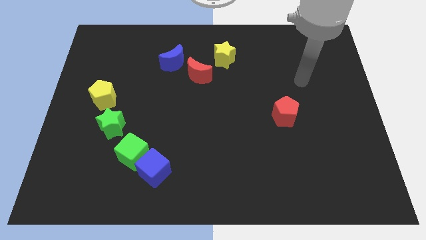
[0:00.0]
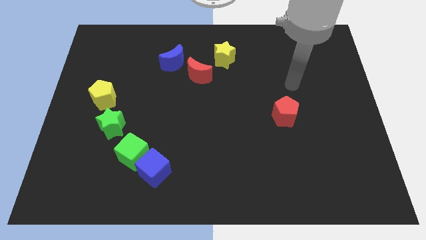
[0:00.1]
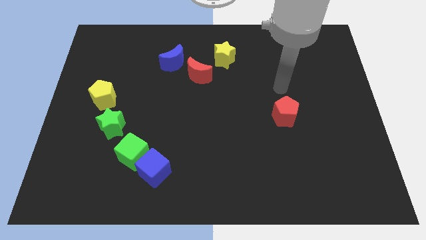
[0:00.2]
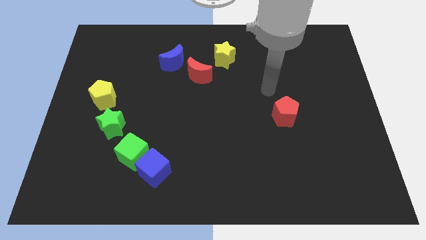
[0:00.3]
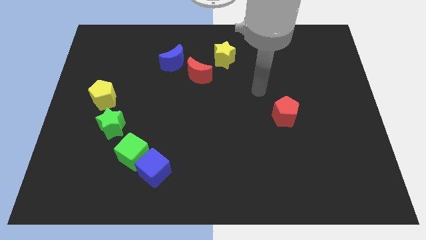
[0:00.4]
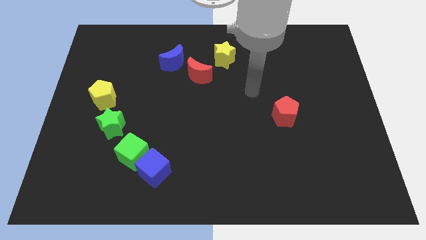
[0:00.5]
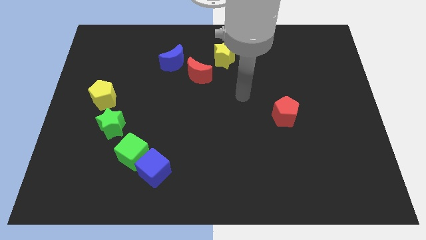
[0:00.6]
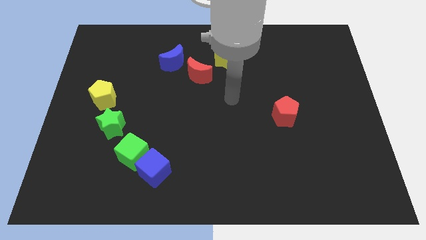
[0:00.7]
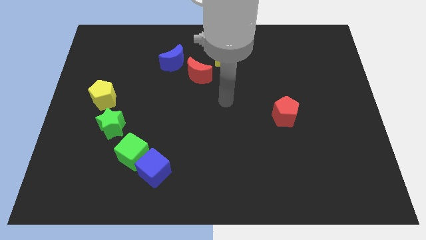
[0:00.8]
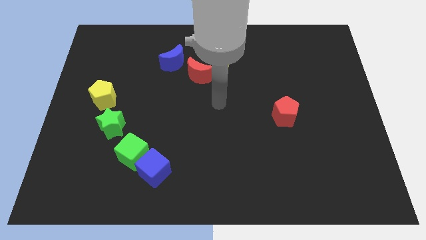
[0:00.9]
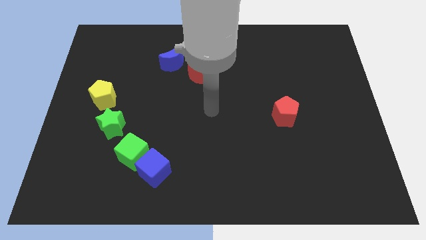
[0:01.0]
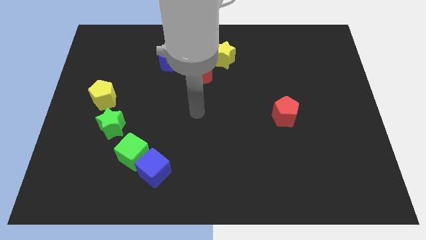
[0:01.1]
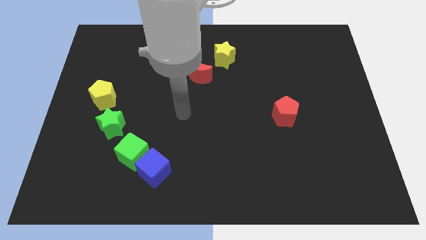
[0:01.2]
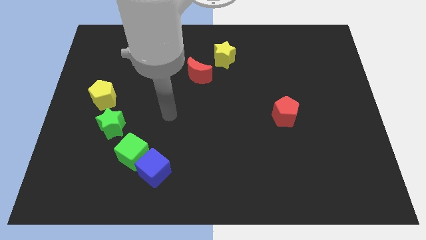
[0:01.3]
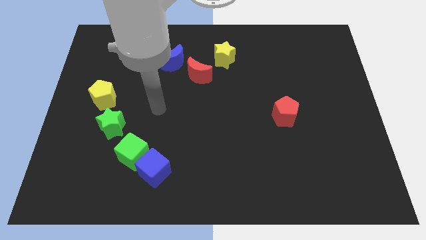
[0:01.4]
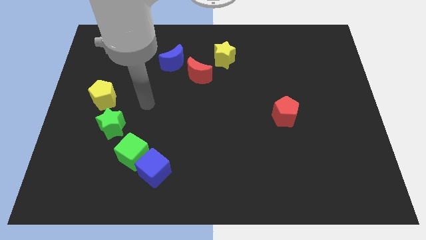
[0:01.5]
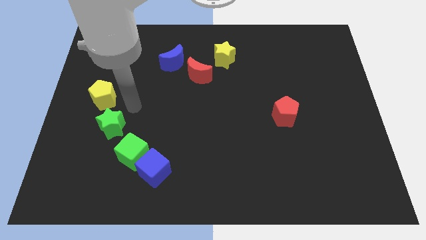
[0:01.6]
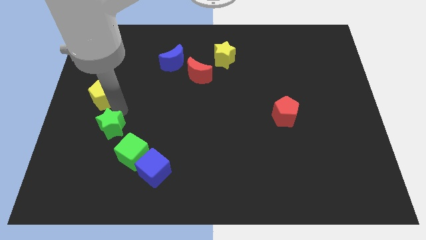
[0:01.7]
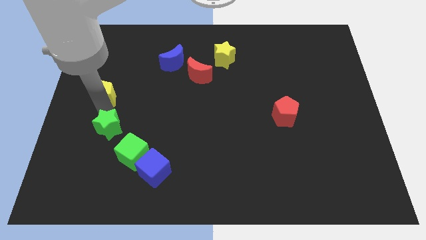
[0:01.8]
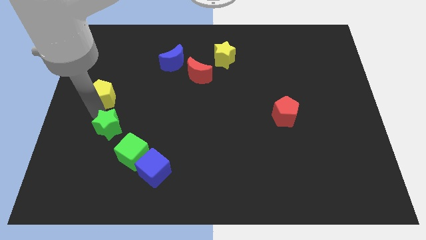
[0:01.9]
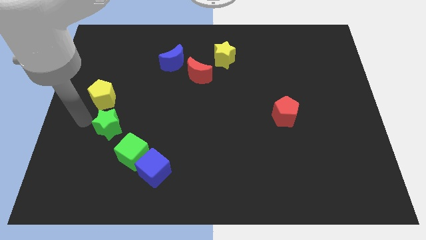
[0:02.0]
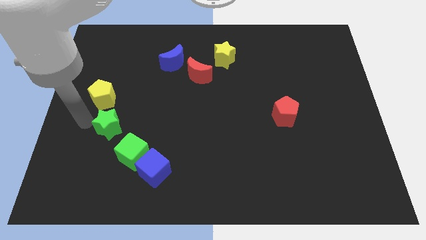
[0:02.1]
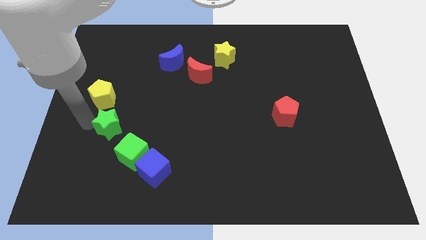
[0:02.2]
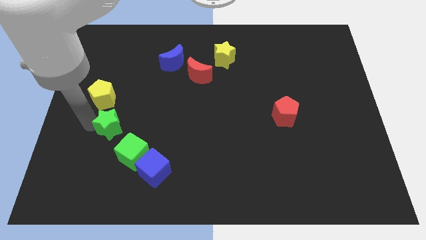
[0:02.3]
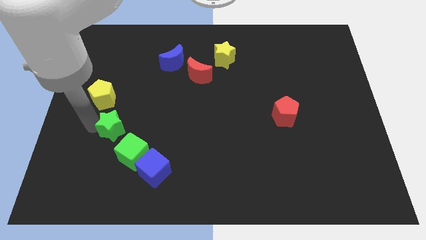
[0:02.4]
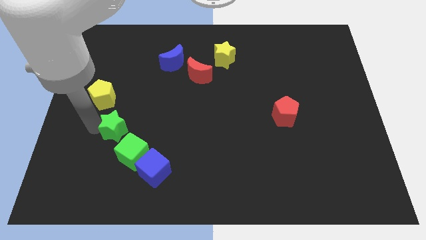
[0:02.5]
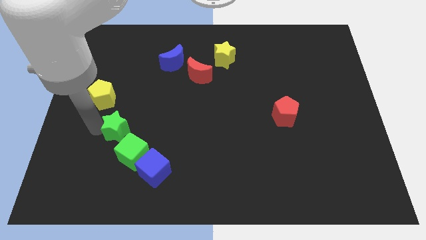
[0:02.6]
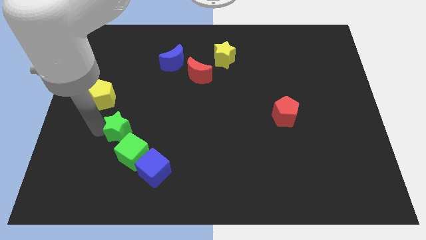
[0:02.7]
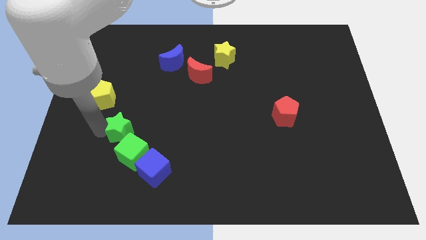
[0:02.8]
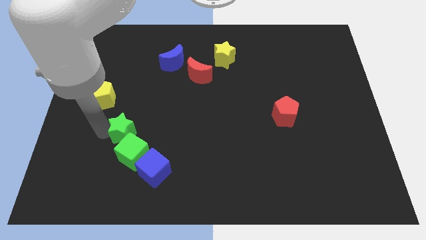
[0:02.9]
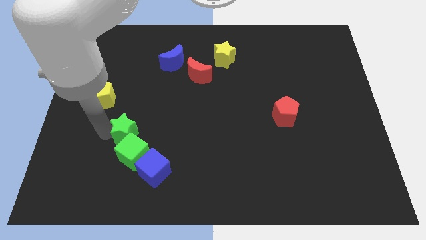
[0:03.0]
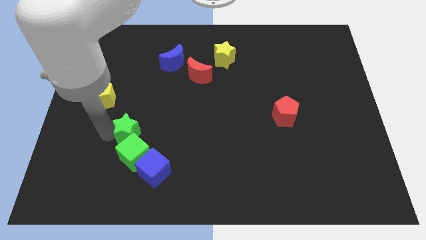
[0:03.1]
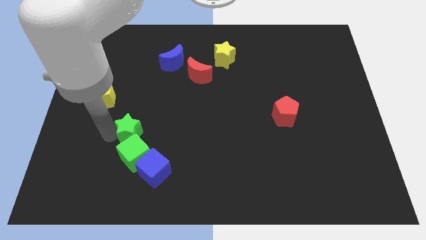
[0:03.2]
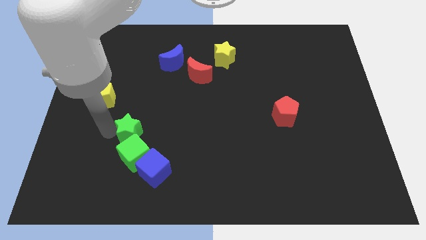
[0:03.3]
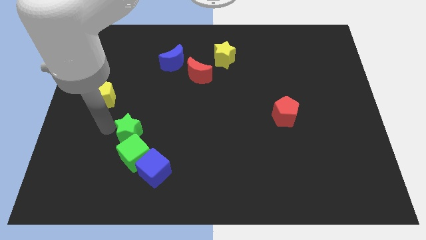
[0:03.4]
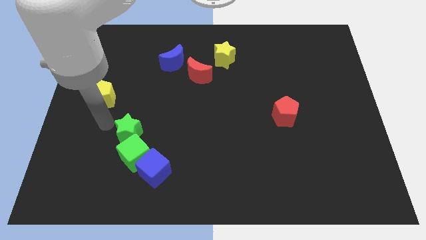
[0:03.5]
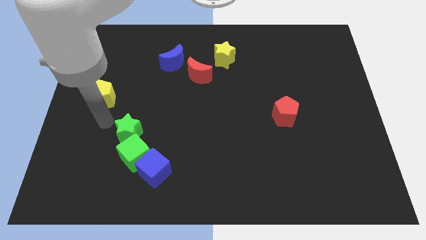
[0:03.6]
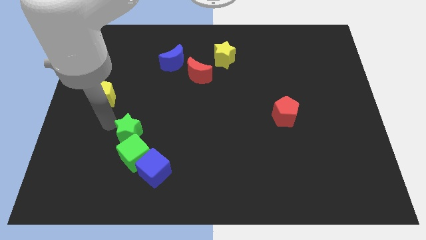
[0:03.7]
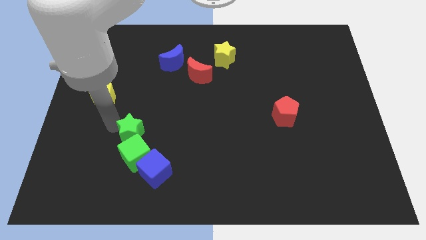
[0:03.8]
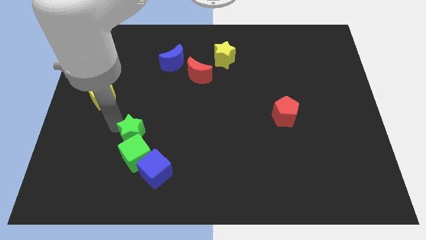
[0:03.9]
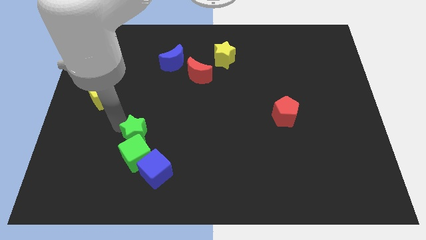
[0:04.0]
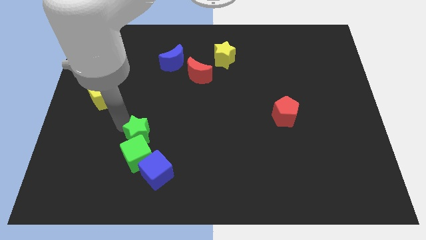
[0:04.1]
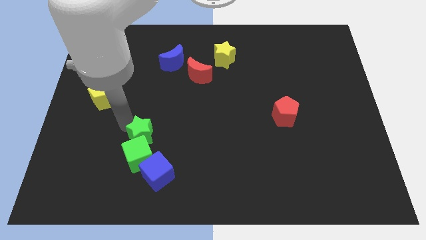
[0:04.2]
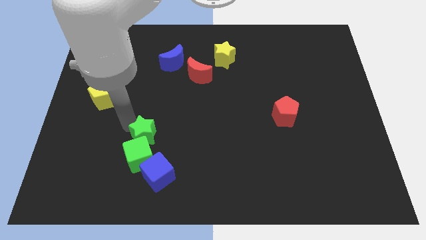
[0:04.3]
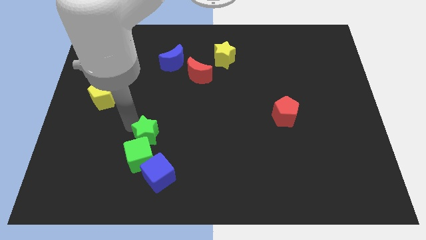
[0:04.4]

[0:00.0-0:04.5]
move the green star somewhat down and then to the right

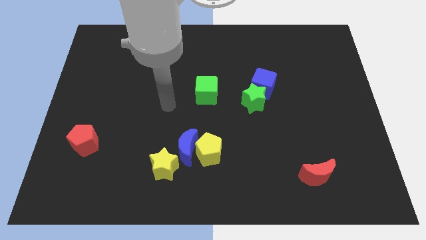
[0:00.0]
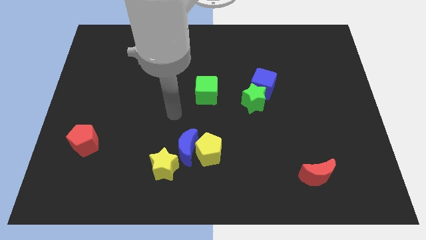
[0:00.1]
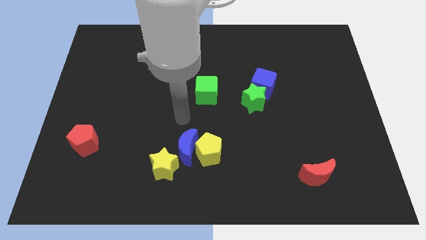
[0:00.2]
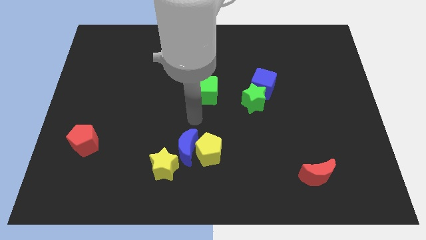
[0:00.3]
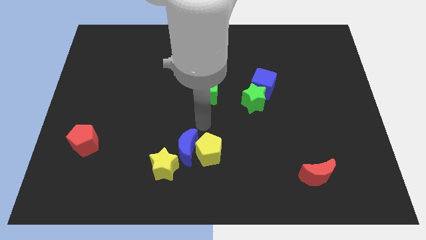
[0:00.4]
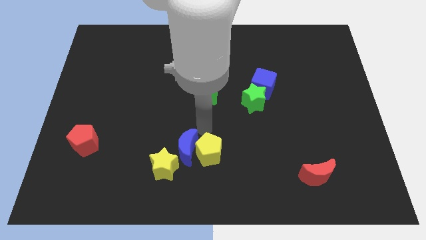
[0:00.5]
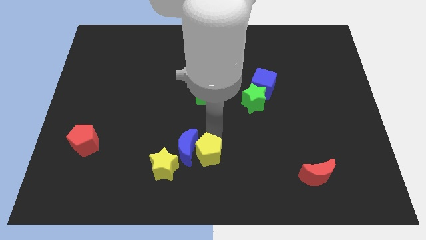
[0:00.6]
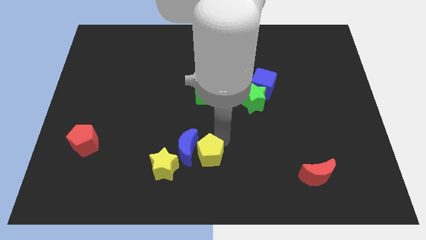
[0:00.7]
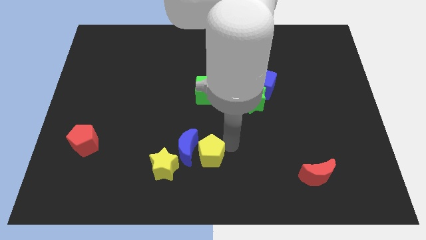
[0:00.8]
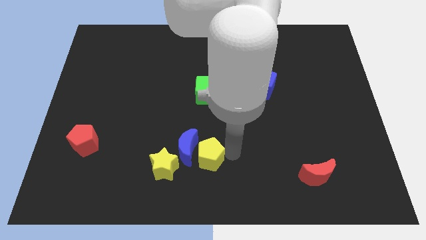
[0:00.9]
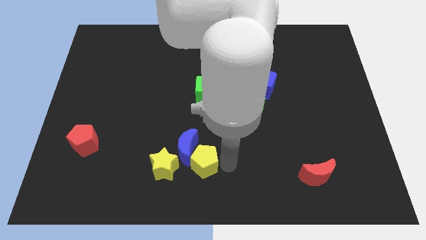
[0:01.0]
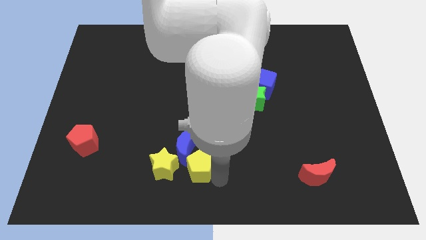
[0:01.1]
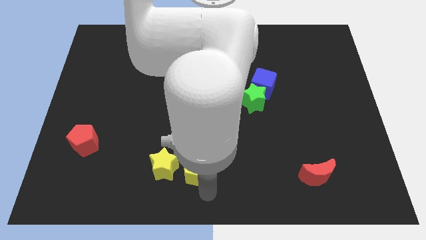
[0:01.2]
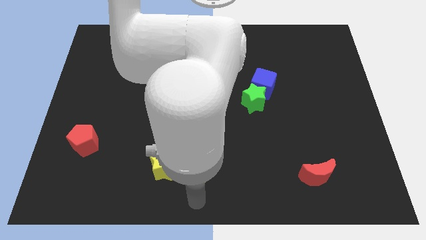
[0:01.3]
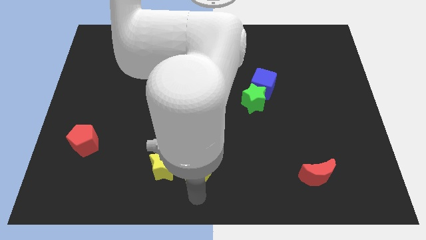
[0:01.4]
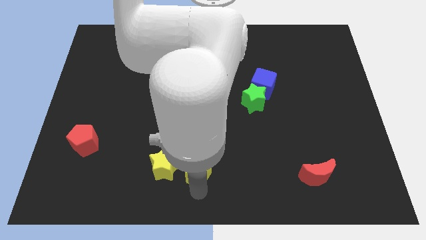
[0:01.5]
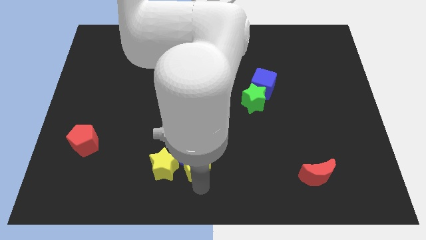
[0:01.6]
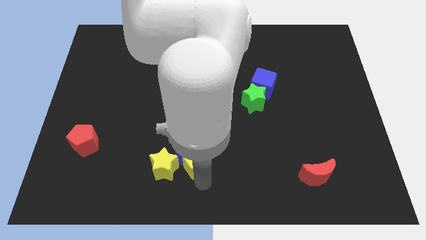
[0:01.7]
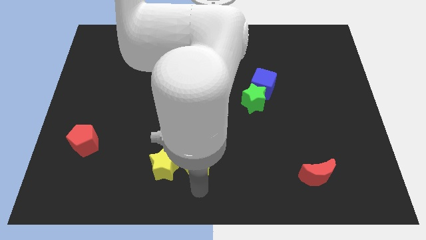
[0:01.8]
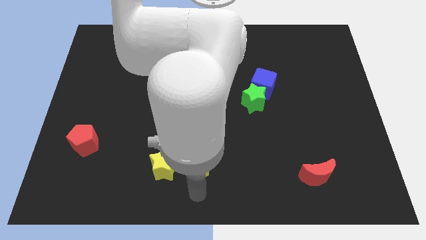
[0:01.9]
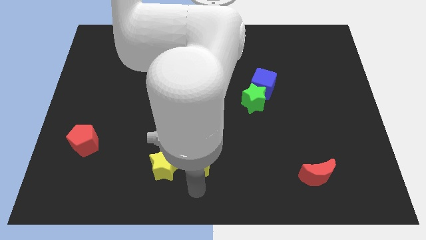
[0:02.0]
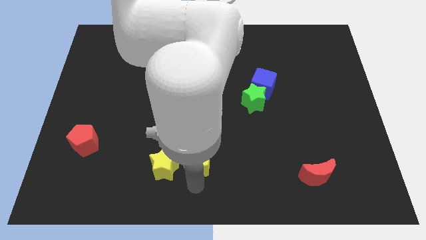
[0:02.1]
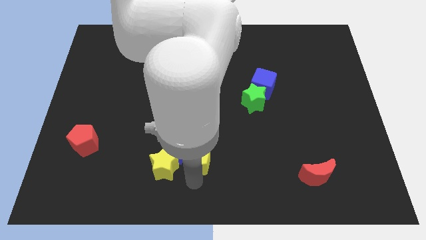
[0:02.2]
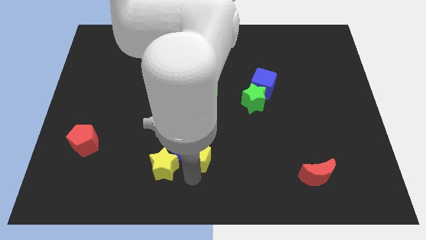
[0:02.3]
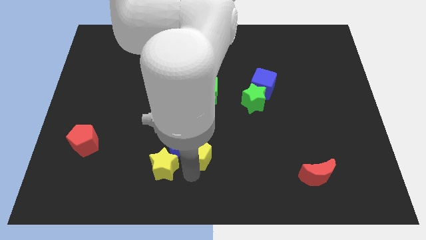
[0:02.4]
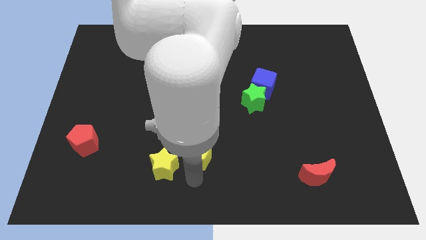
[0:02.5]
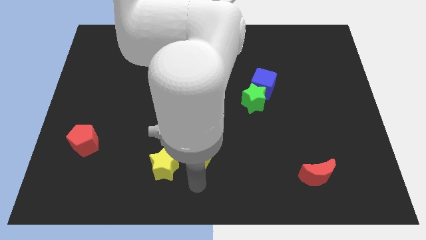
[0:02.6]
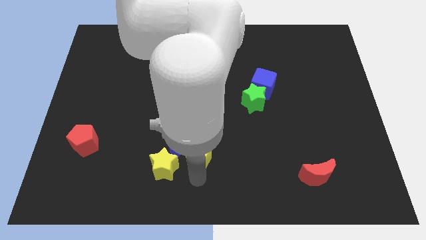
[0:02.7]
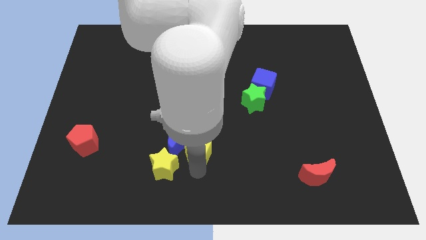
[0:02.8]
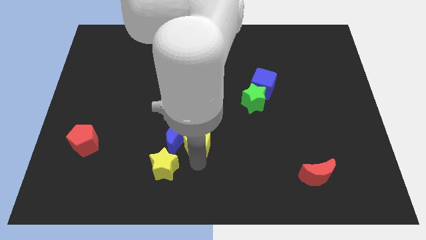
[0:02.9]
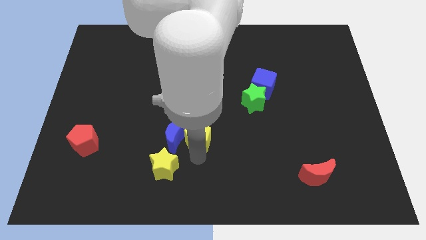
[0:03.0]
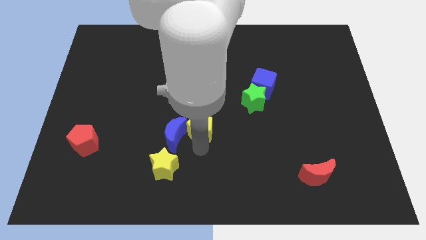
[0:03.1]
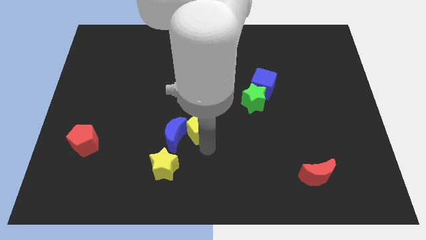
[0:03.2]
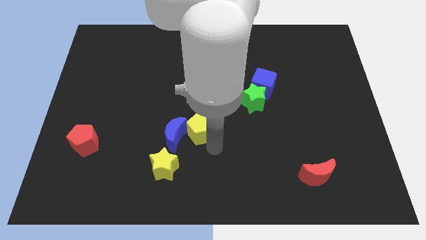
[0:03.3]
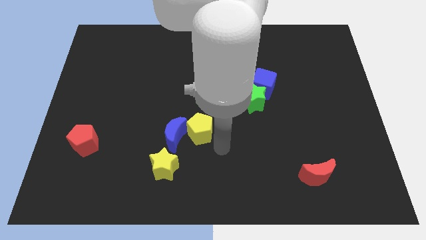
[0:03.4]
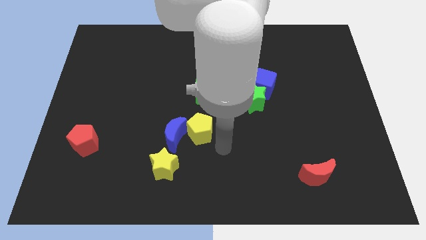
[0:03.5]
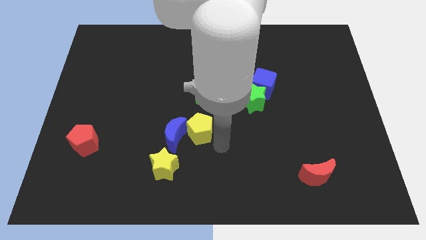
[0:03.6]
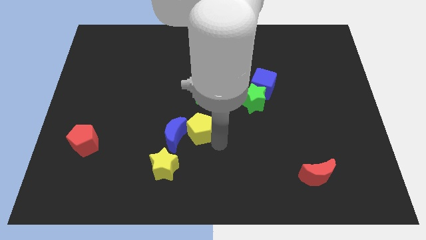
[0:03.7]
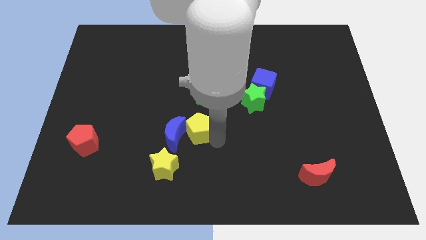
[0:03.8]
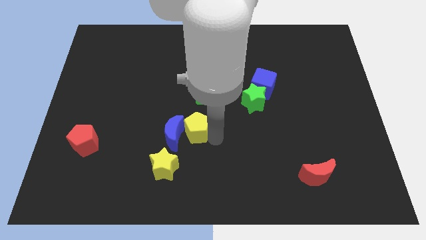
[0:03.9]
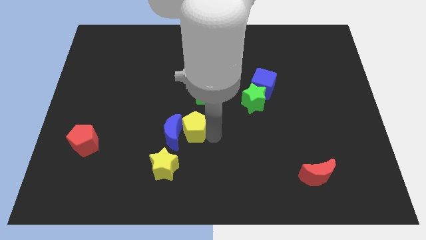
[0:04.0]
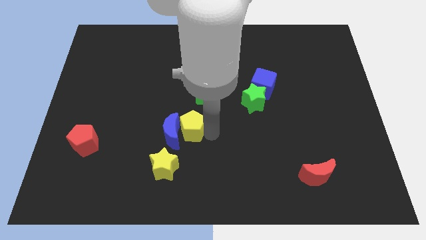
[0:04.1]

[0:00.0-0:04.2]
slightly push the yellow pentagon up and left diagonally
